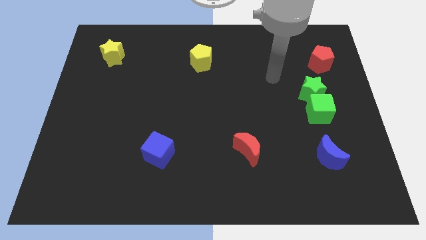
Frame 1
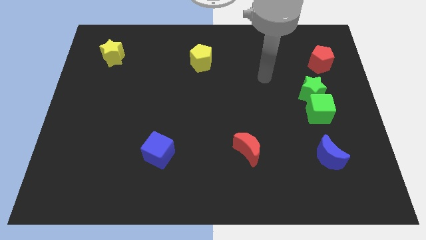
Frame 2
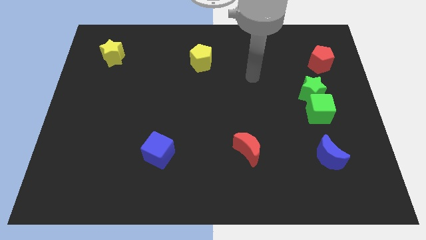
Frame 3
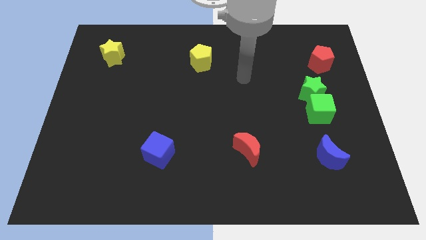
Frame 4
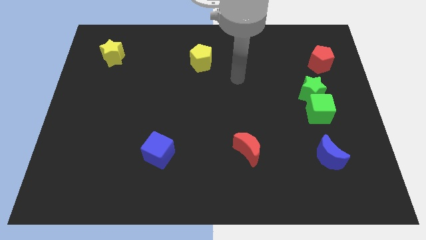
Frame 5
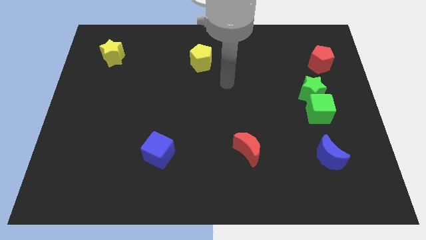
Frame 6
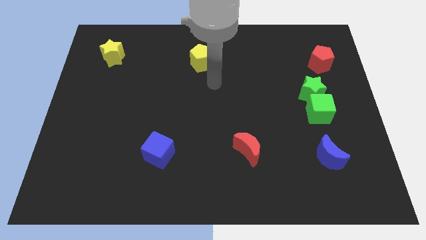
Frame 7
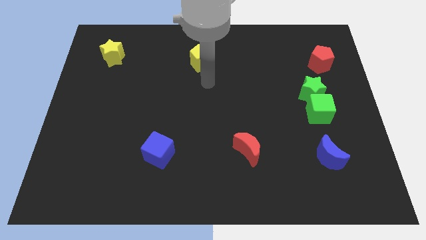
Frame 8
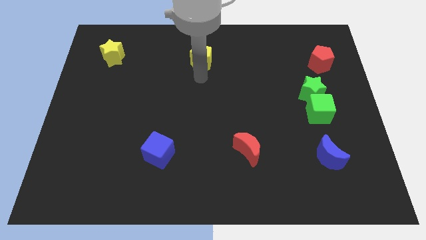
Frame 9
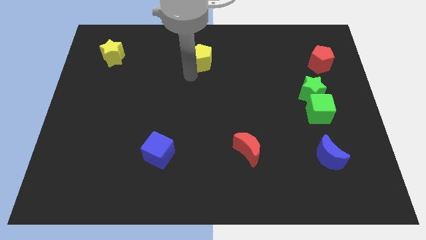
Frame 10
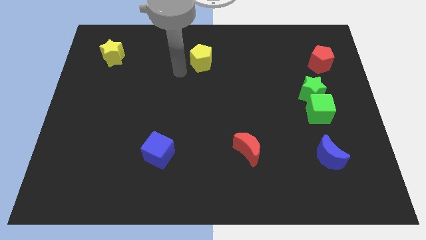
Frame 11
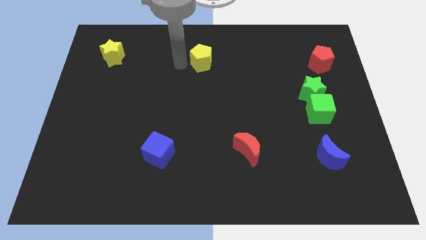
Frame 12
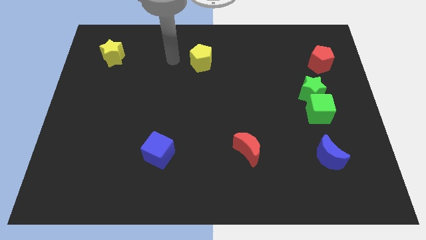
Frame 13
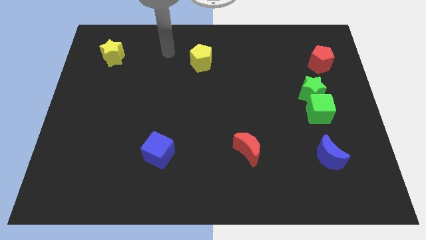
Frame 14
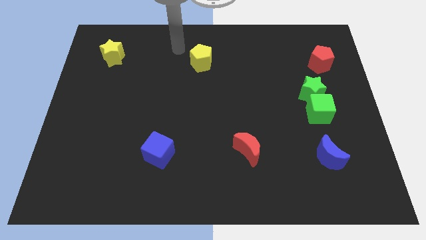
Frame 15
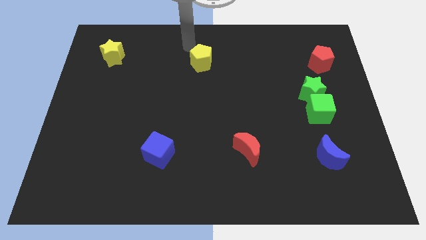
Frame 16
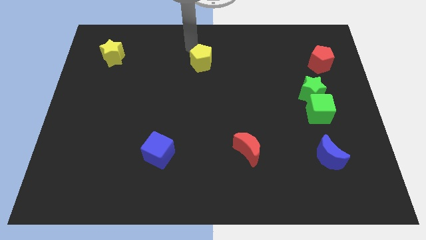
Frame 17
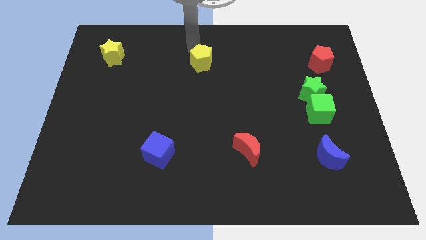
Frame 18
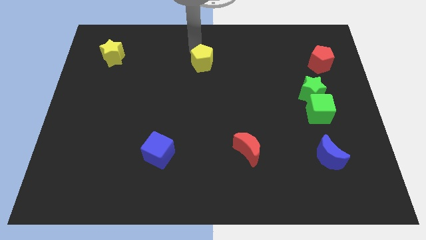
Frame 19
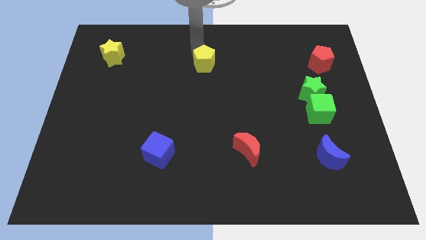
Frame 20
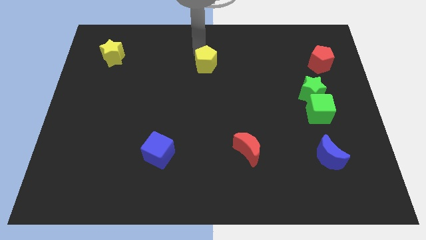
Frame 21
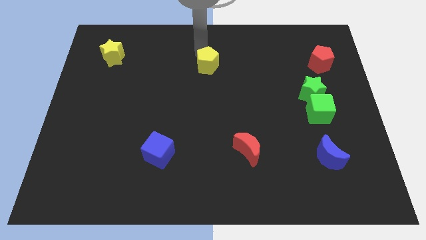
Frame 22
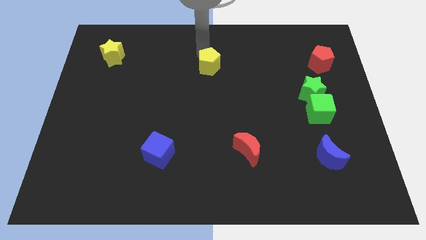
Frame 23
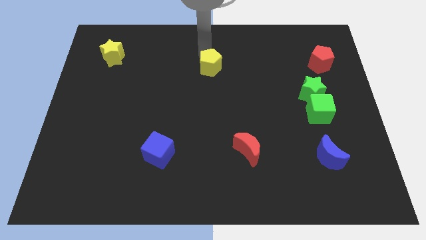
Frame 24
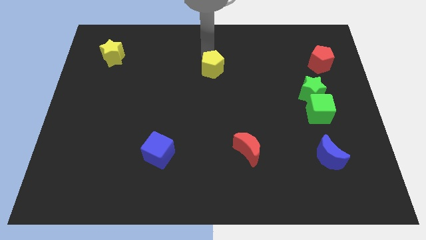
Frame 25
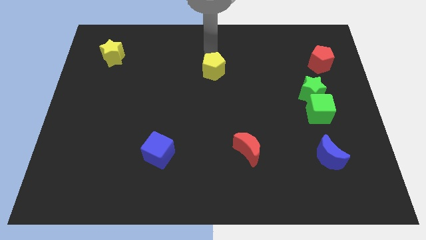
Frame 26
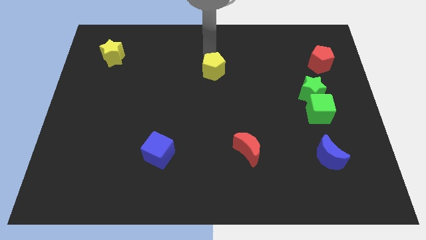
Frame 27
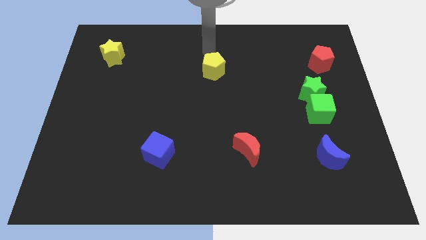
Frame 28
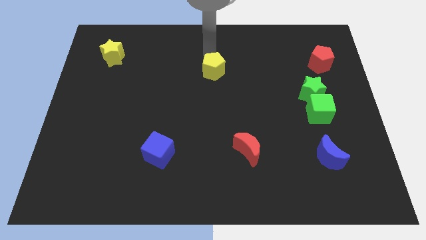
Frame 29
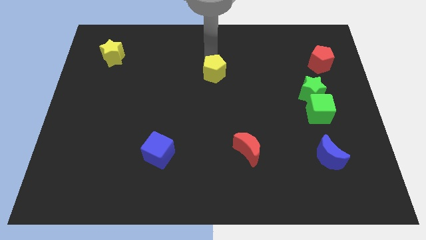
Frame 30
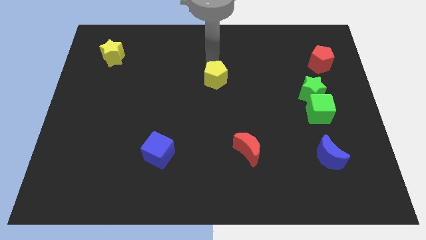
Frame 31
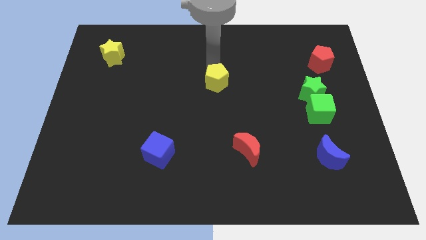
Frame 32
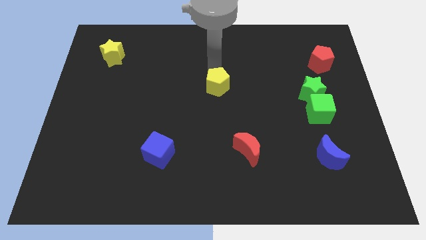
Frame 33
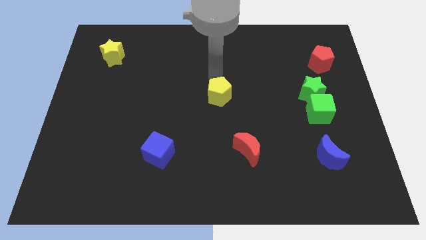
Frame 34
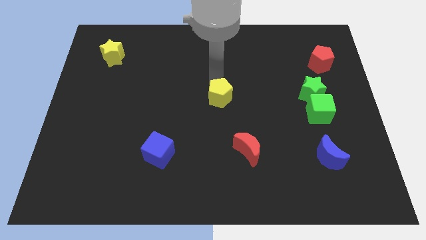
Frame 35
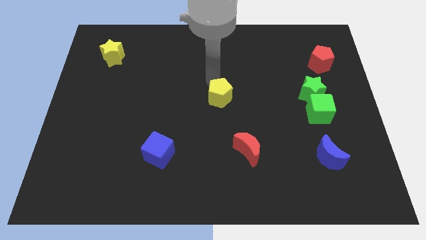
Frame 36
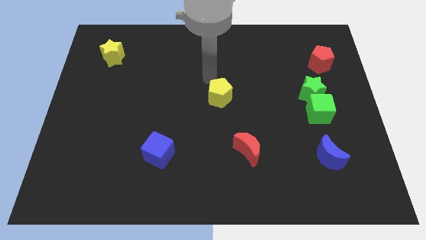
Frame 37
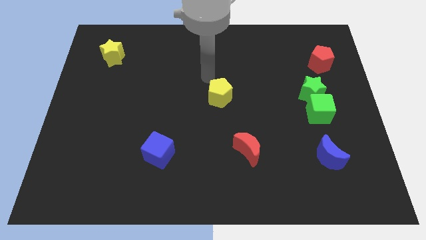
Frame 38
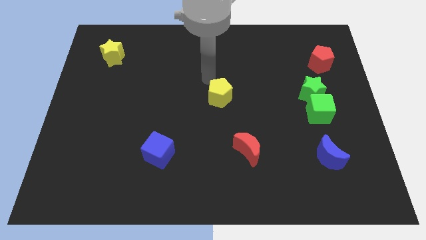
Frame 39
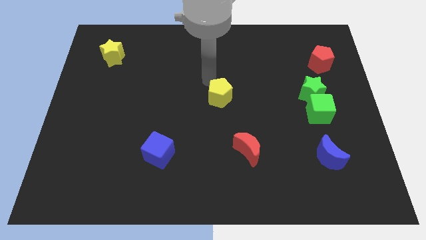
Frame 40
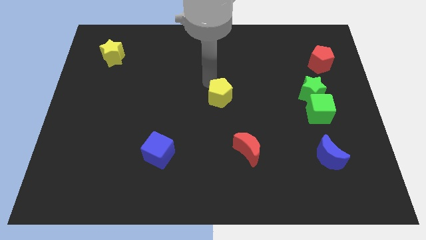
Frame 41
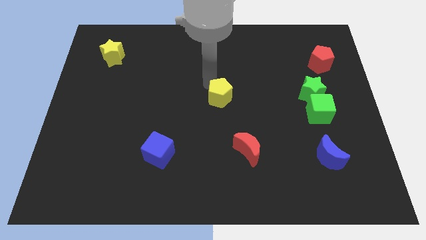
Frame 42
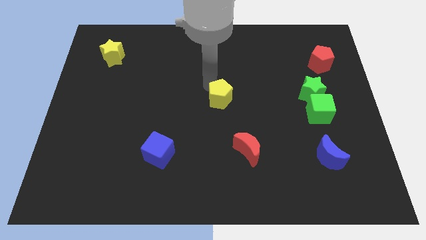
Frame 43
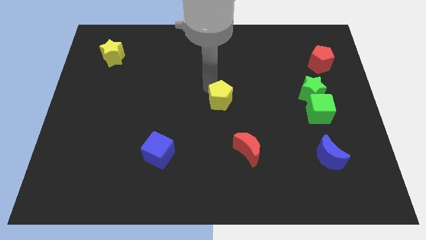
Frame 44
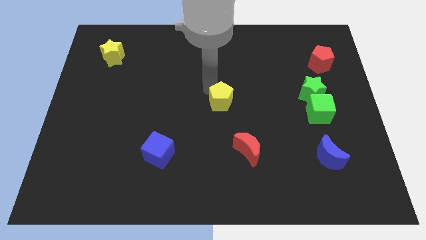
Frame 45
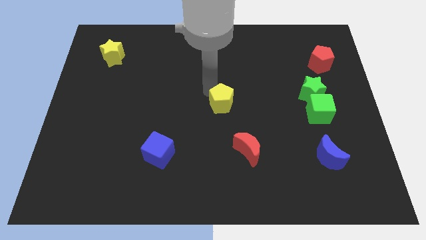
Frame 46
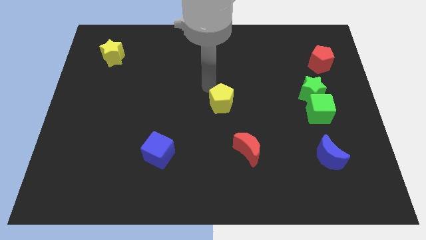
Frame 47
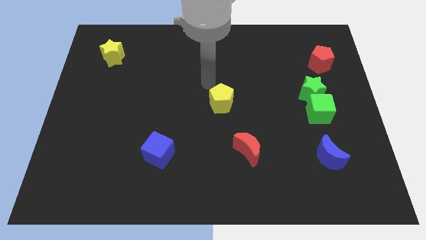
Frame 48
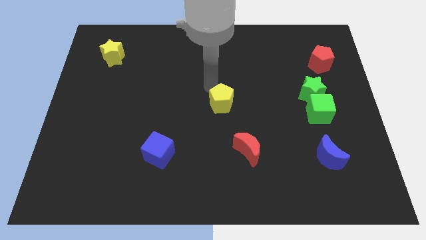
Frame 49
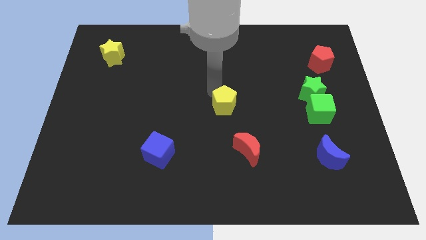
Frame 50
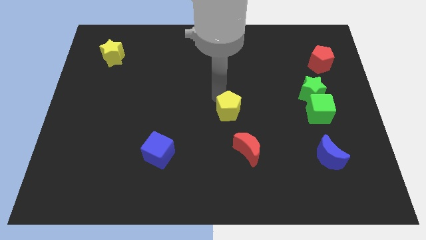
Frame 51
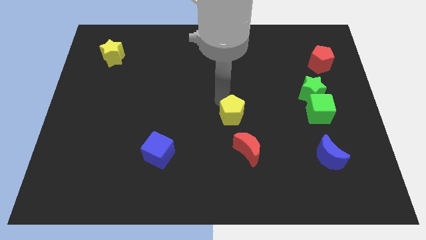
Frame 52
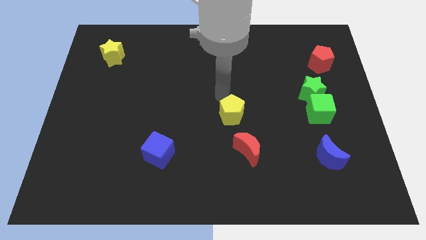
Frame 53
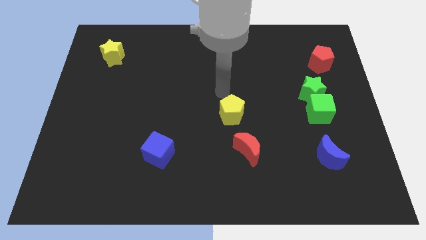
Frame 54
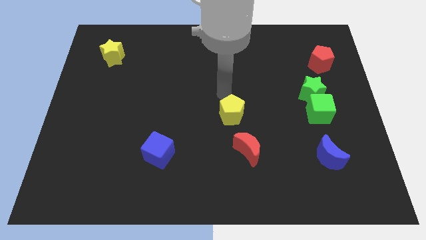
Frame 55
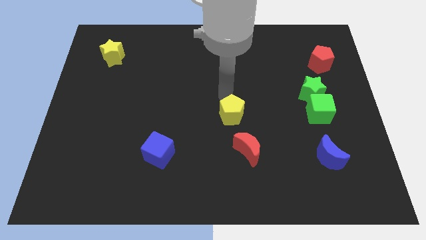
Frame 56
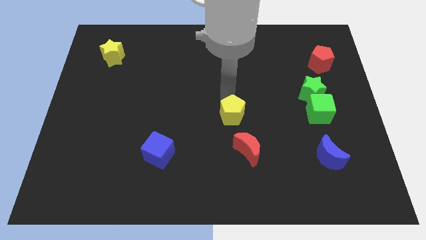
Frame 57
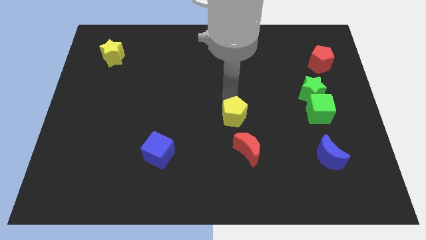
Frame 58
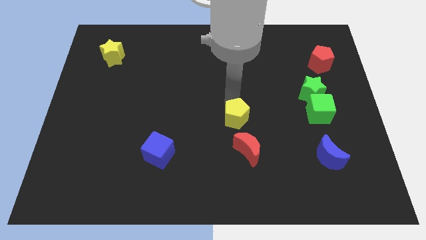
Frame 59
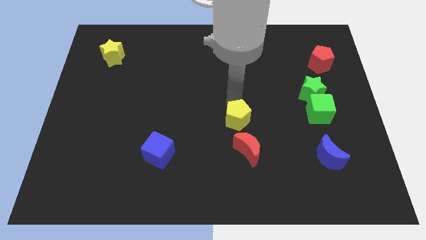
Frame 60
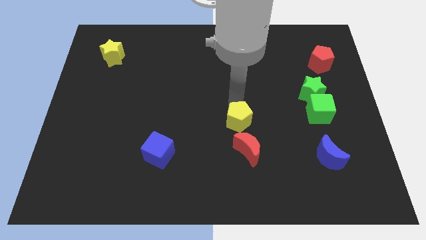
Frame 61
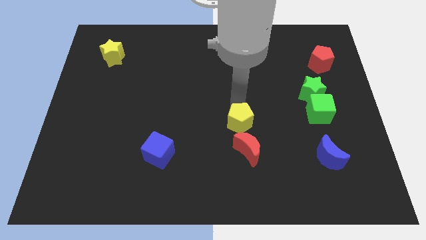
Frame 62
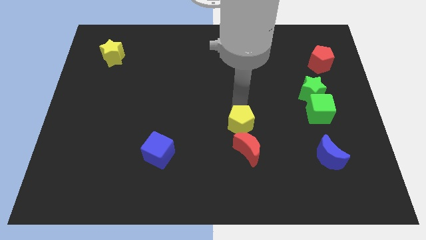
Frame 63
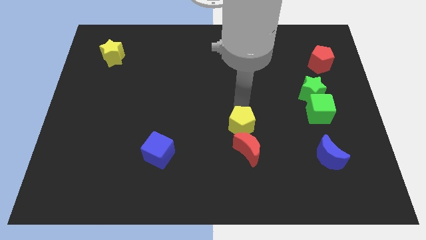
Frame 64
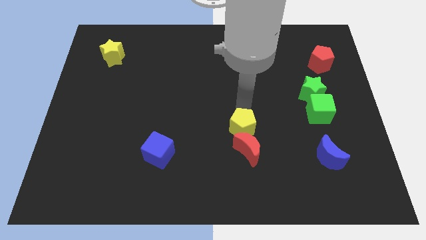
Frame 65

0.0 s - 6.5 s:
move the yellow pentagon next to the red moon

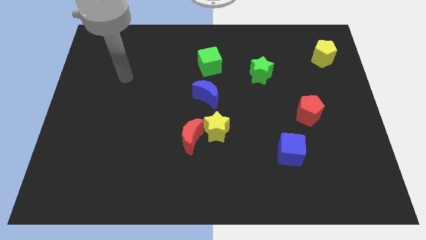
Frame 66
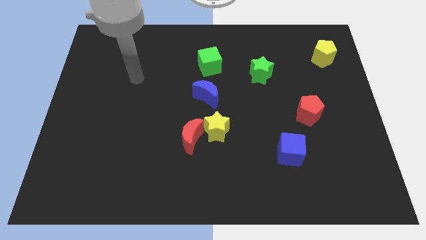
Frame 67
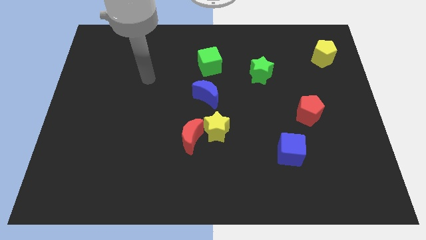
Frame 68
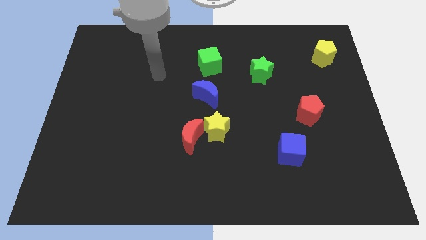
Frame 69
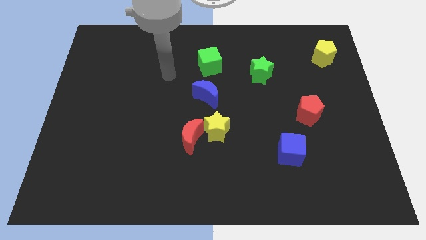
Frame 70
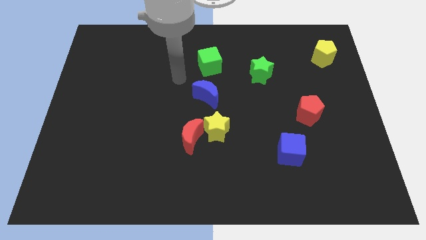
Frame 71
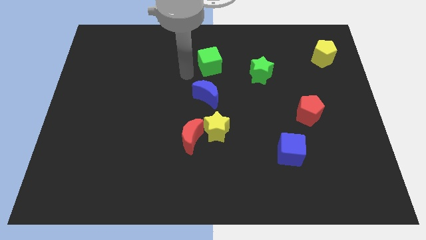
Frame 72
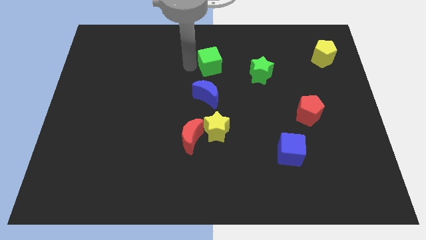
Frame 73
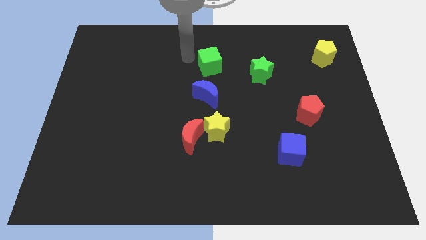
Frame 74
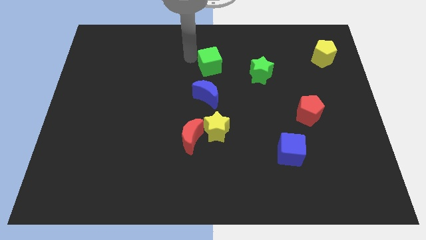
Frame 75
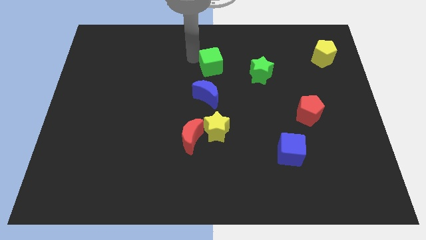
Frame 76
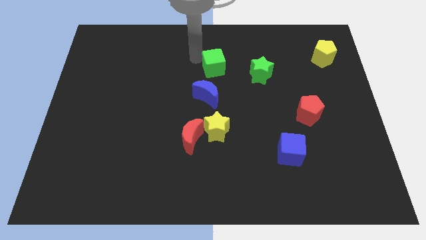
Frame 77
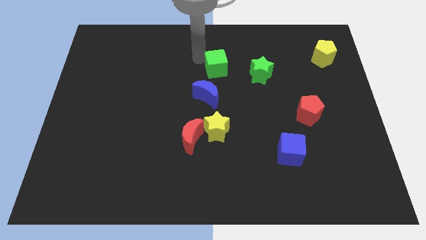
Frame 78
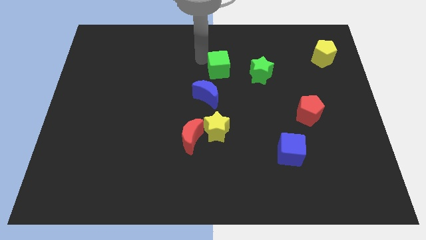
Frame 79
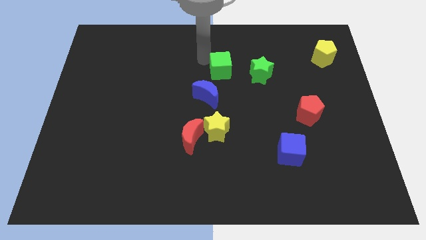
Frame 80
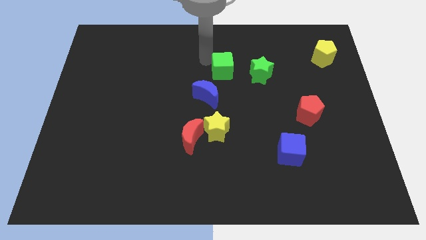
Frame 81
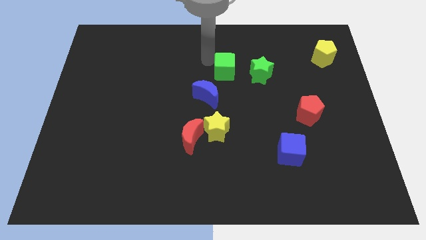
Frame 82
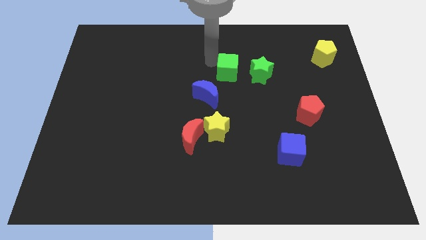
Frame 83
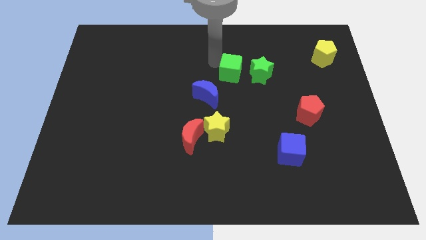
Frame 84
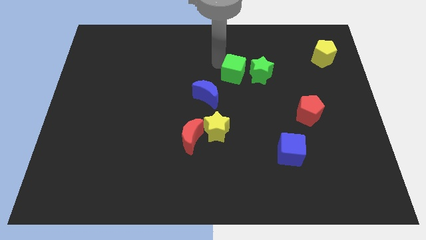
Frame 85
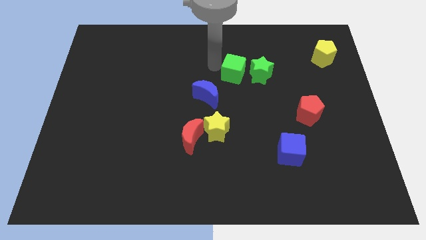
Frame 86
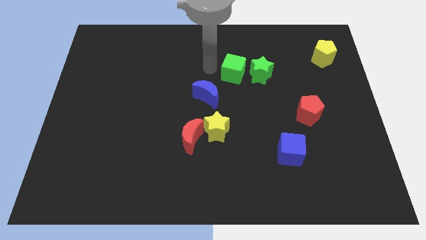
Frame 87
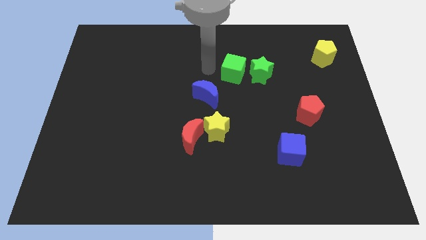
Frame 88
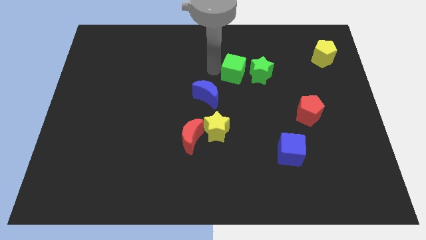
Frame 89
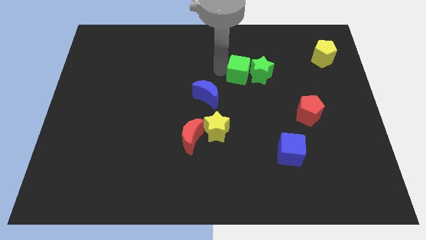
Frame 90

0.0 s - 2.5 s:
push the green cube next to the green star
